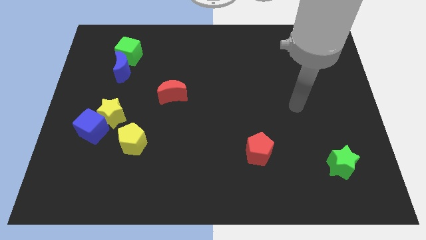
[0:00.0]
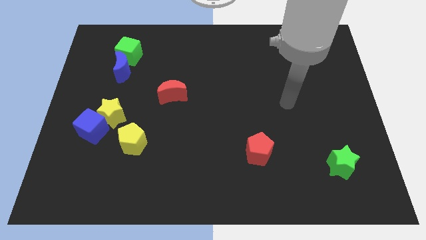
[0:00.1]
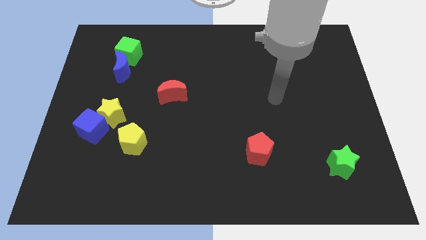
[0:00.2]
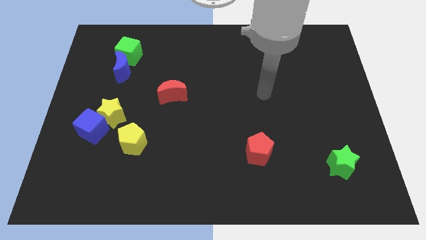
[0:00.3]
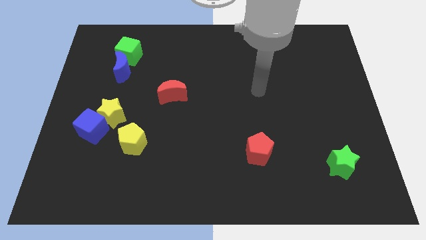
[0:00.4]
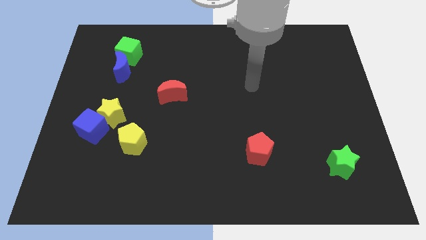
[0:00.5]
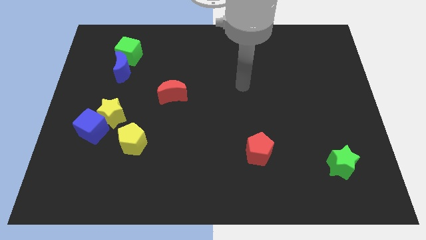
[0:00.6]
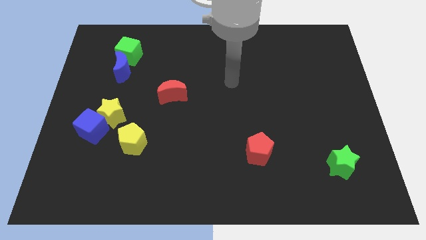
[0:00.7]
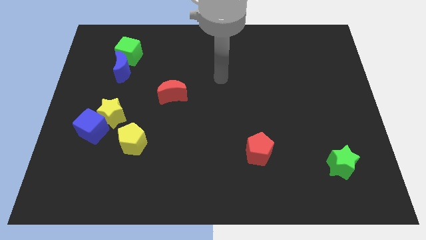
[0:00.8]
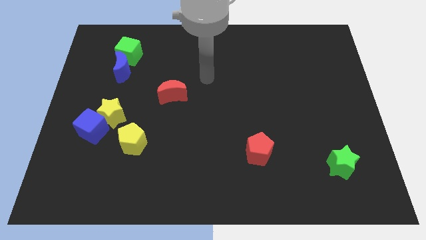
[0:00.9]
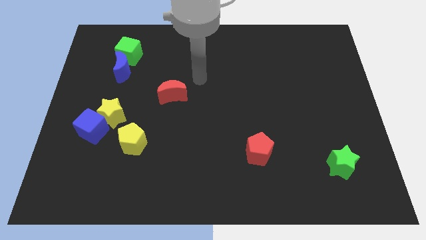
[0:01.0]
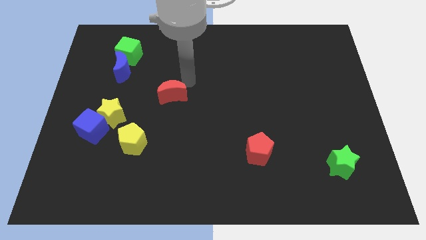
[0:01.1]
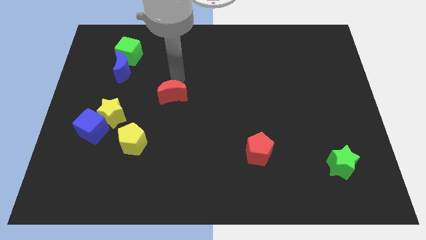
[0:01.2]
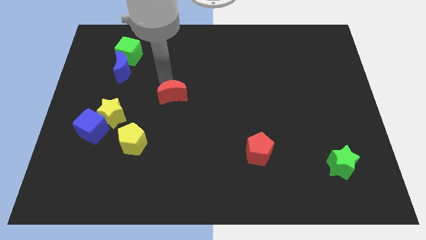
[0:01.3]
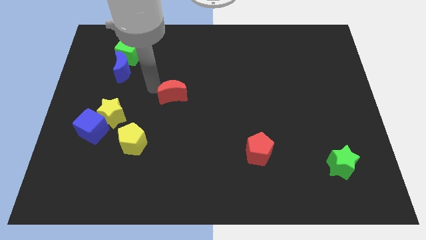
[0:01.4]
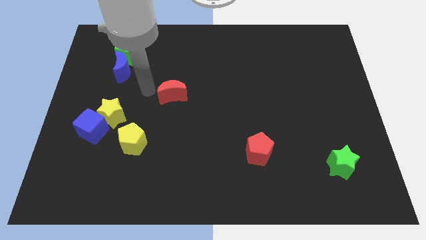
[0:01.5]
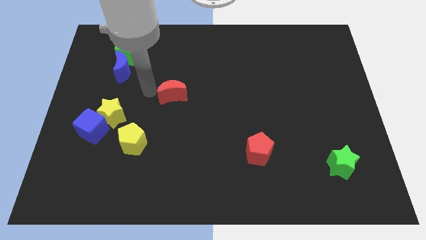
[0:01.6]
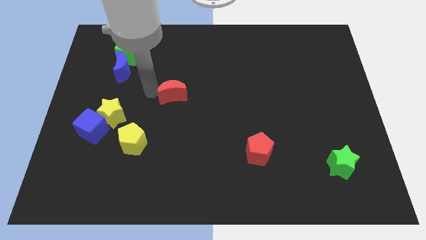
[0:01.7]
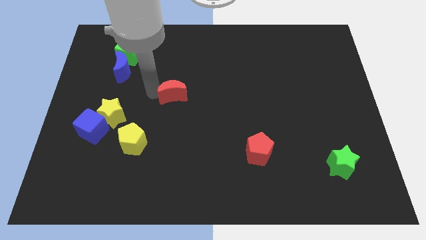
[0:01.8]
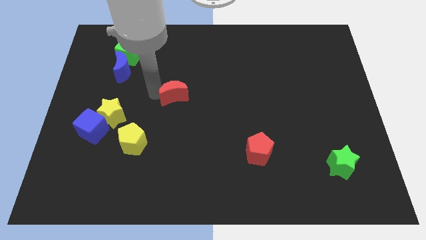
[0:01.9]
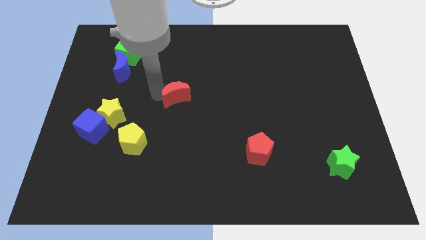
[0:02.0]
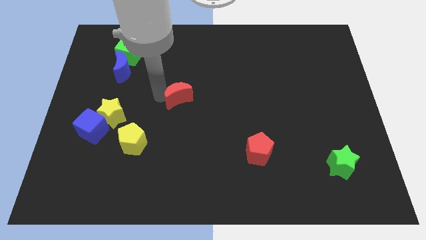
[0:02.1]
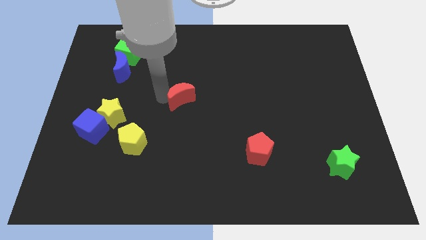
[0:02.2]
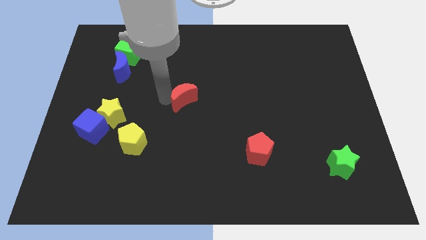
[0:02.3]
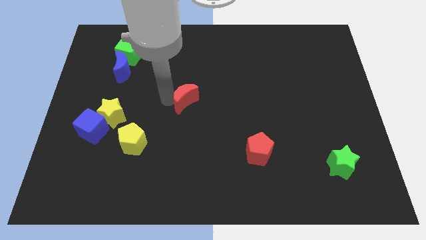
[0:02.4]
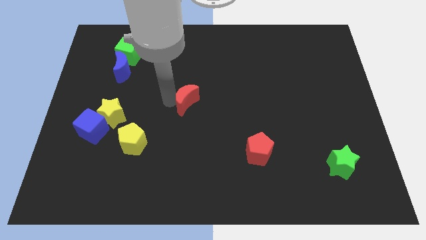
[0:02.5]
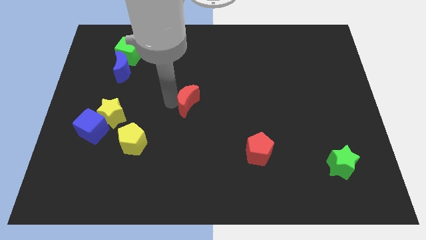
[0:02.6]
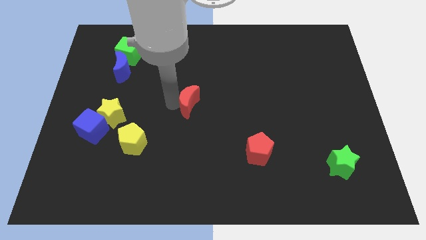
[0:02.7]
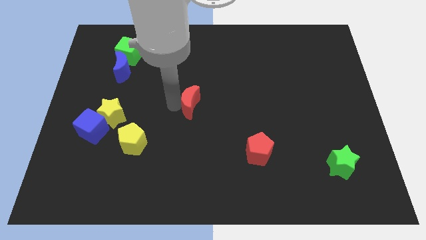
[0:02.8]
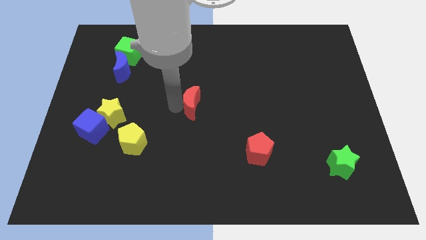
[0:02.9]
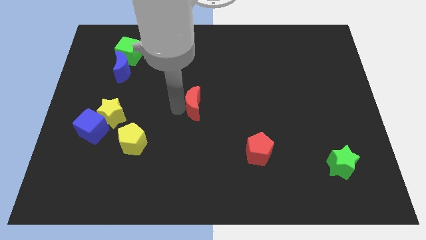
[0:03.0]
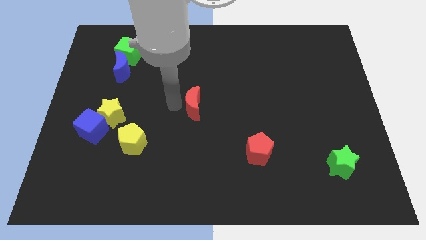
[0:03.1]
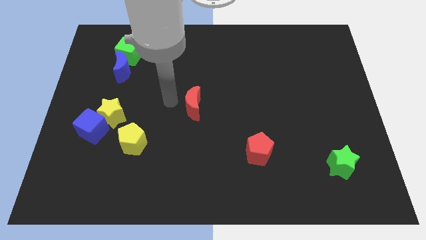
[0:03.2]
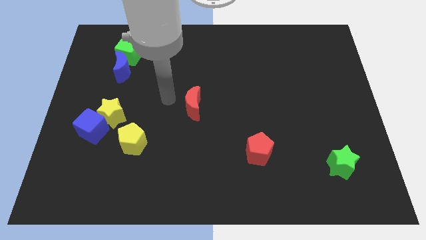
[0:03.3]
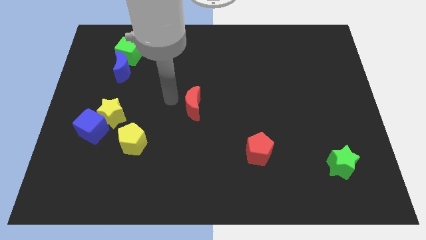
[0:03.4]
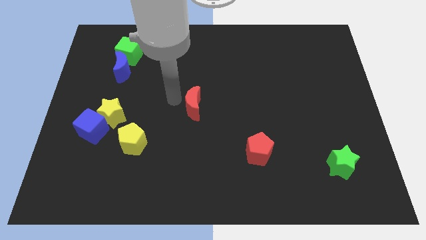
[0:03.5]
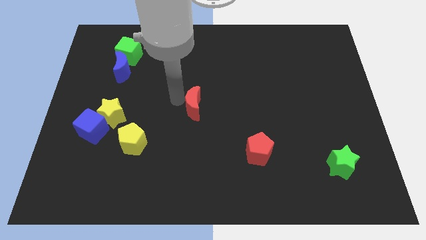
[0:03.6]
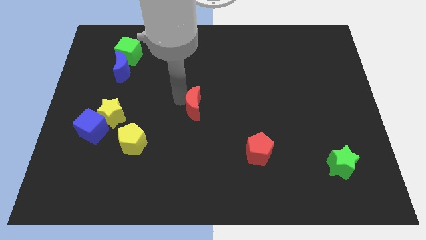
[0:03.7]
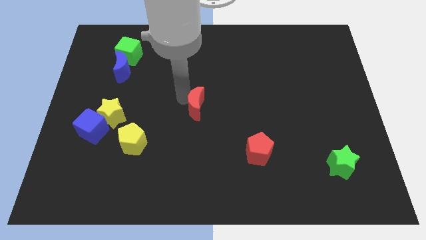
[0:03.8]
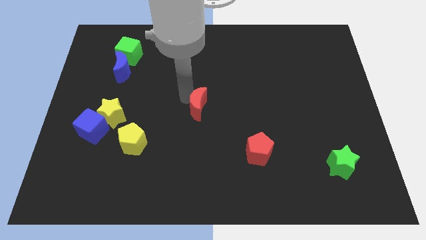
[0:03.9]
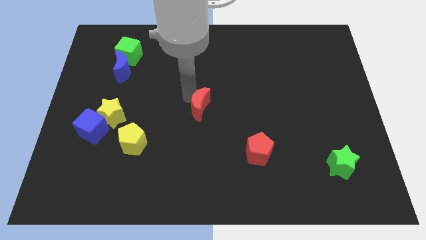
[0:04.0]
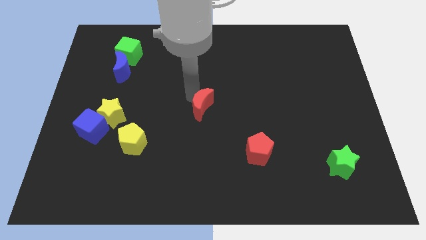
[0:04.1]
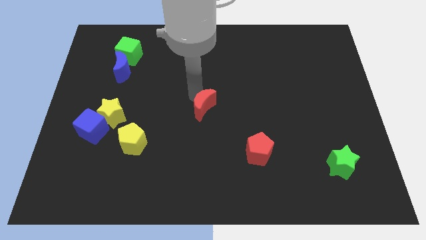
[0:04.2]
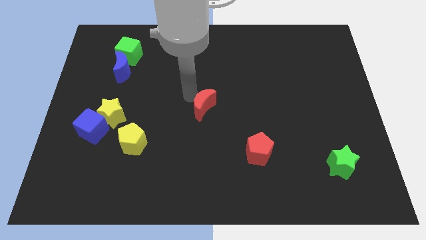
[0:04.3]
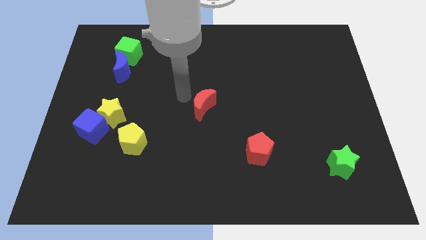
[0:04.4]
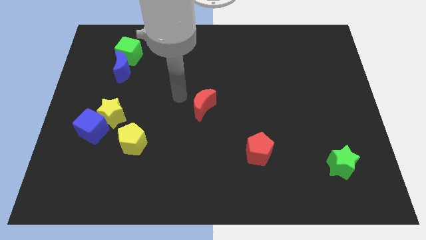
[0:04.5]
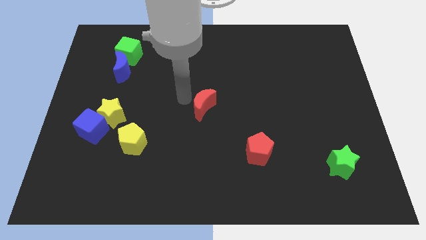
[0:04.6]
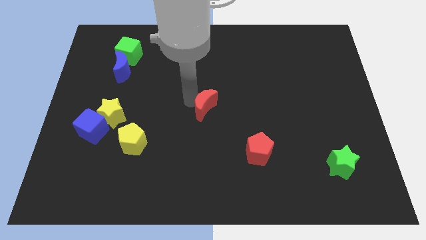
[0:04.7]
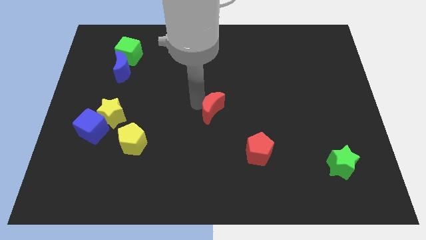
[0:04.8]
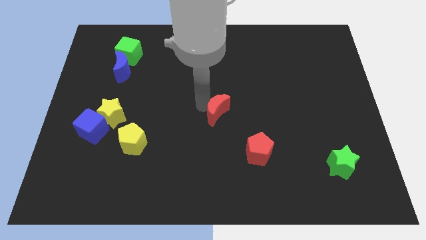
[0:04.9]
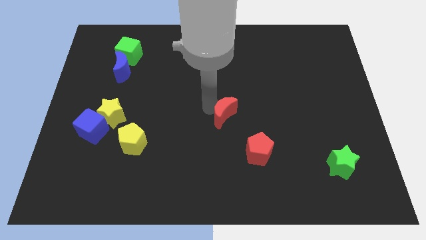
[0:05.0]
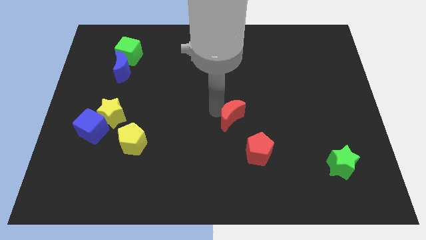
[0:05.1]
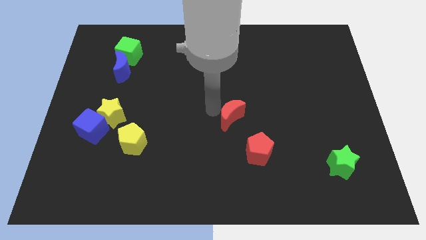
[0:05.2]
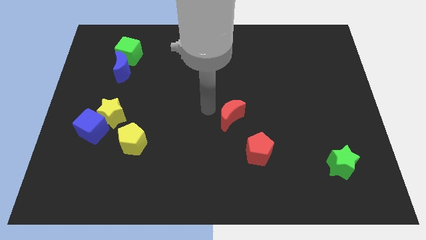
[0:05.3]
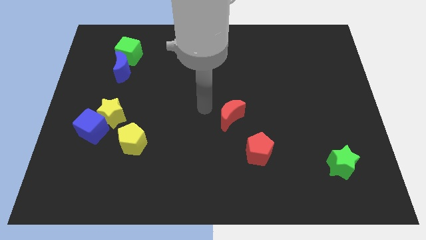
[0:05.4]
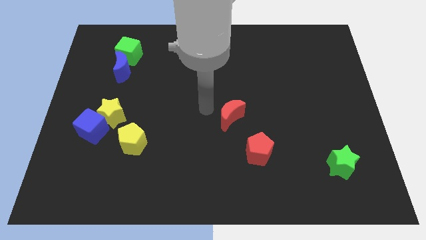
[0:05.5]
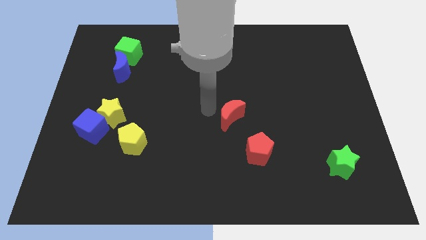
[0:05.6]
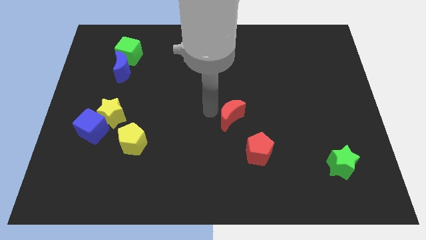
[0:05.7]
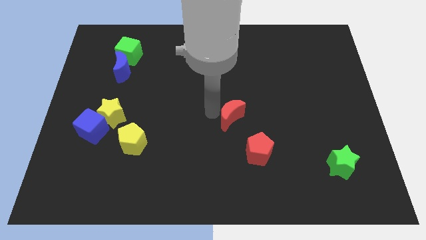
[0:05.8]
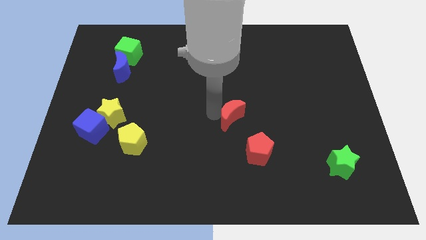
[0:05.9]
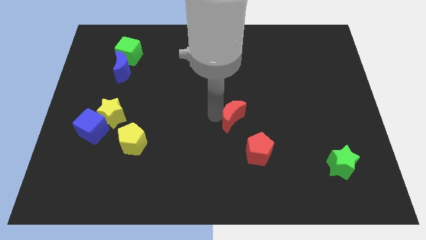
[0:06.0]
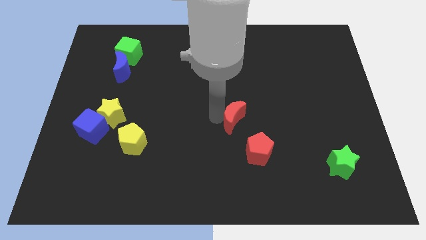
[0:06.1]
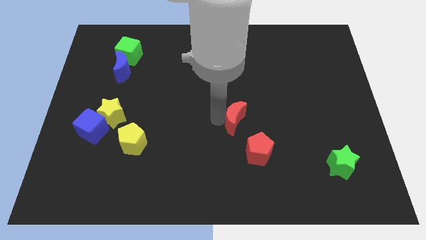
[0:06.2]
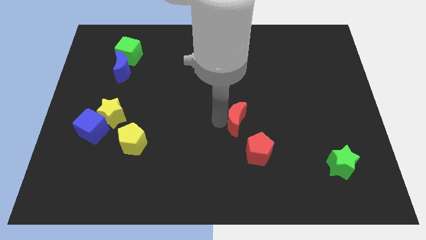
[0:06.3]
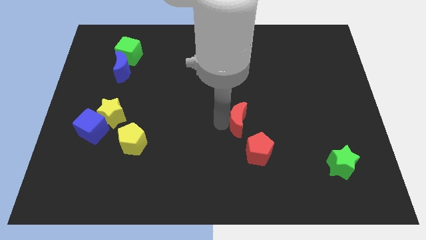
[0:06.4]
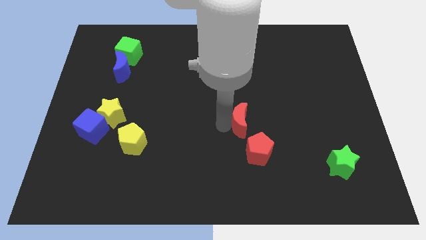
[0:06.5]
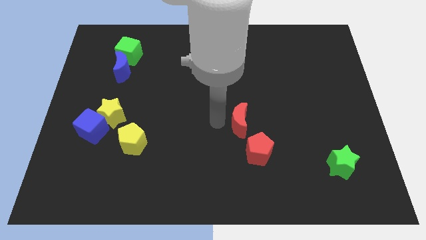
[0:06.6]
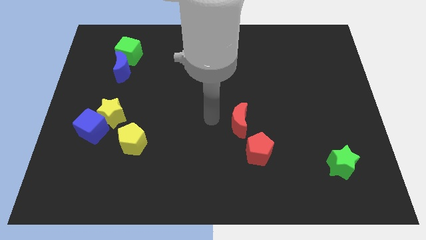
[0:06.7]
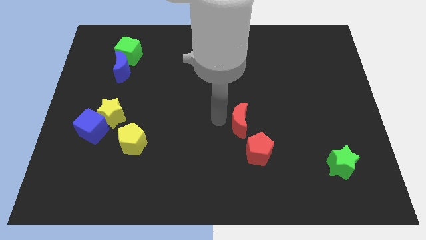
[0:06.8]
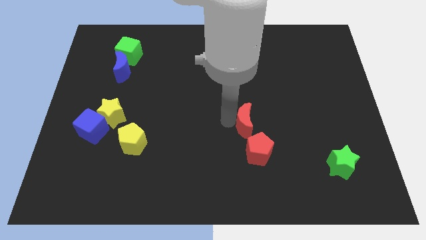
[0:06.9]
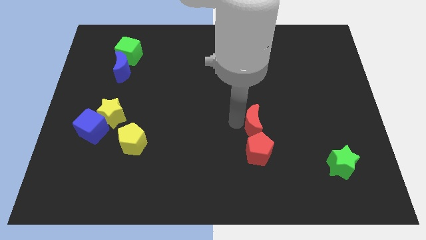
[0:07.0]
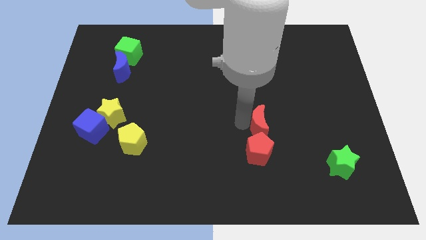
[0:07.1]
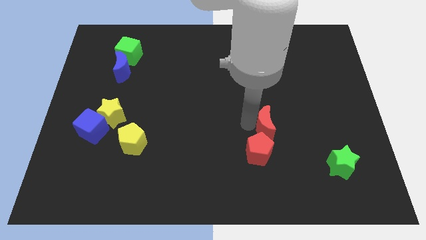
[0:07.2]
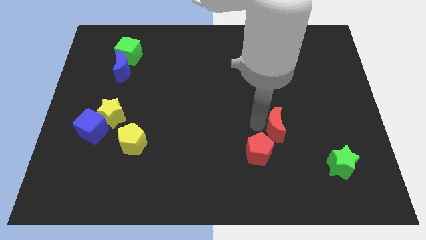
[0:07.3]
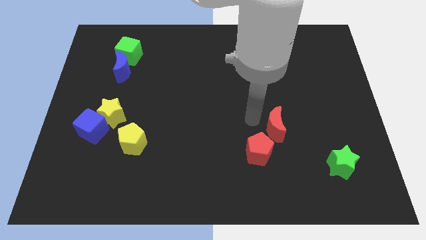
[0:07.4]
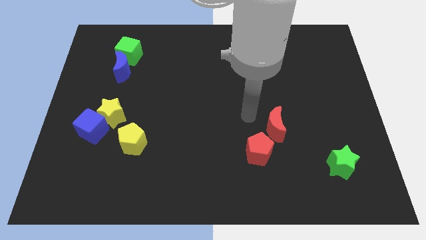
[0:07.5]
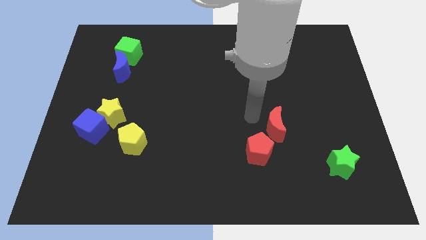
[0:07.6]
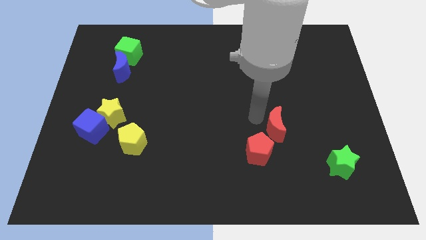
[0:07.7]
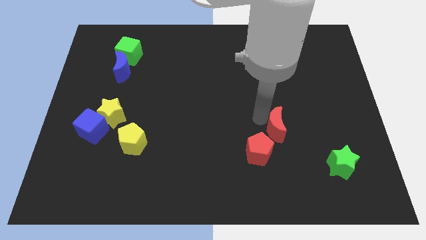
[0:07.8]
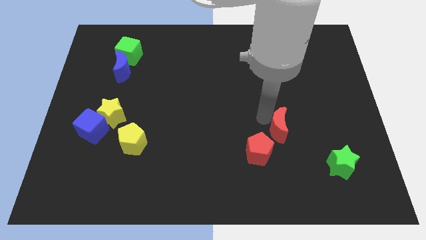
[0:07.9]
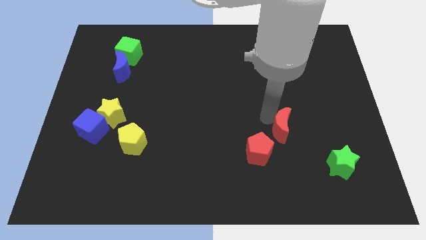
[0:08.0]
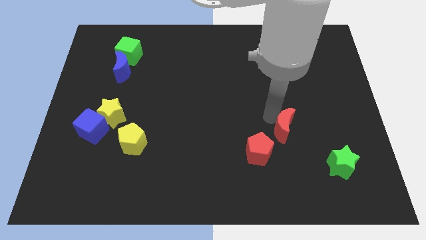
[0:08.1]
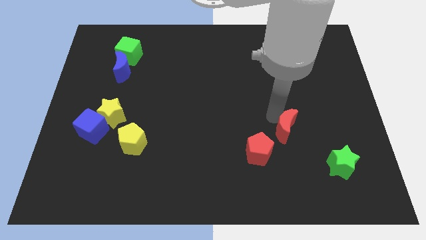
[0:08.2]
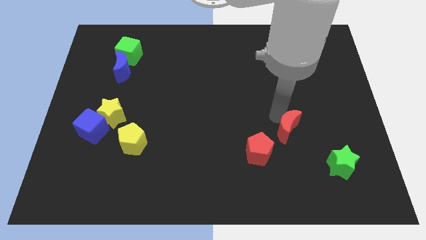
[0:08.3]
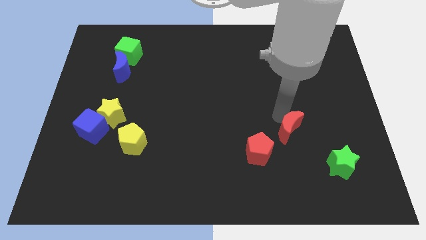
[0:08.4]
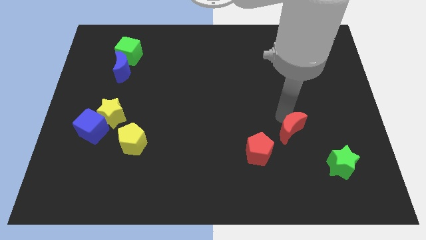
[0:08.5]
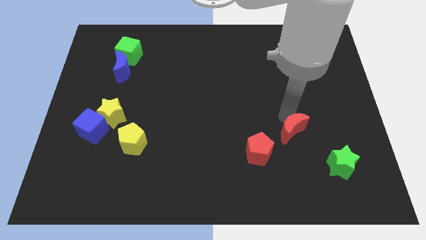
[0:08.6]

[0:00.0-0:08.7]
move the red moon diagonally up and to the left of the green star
